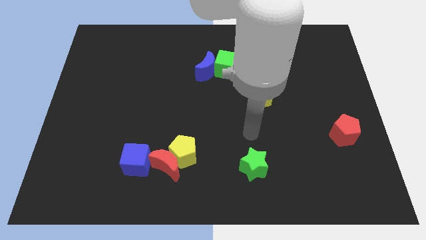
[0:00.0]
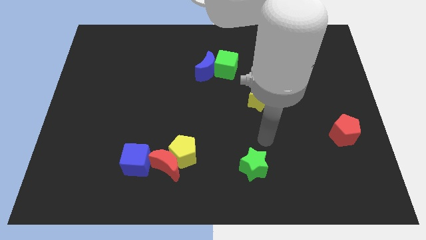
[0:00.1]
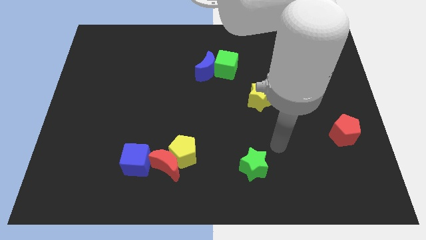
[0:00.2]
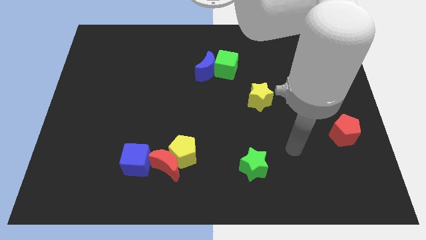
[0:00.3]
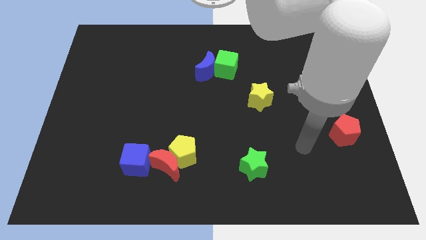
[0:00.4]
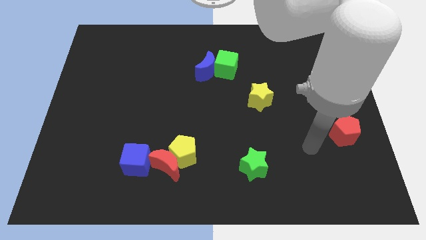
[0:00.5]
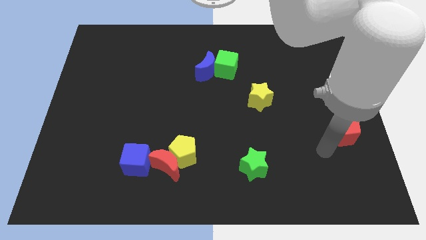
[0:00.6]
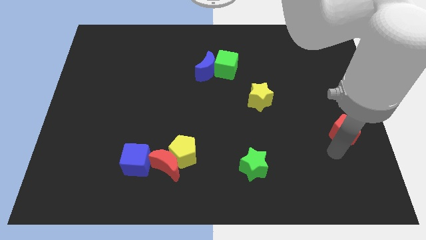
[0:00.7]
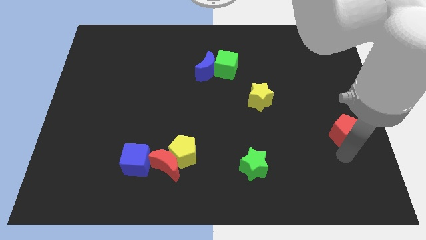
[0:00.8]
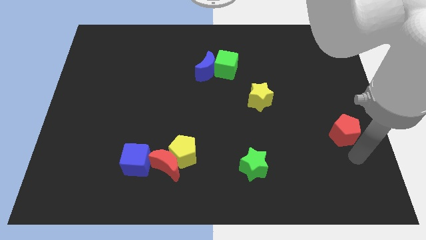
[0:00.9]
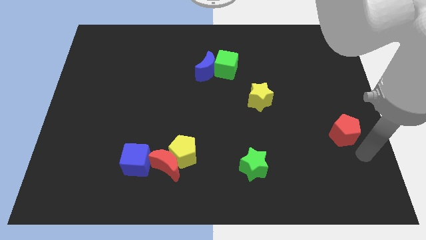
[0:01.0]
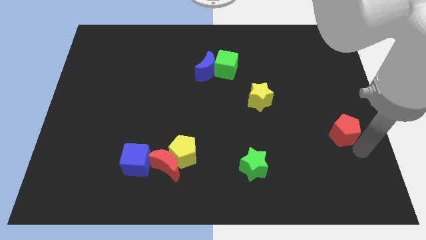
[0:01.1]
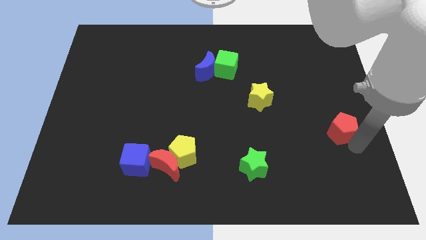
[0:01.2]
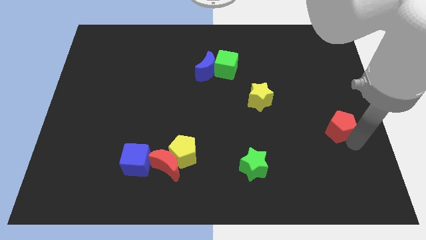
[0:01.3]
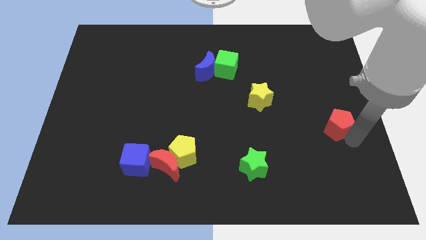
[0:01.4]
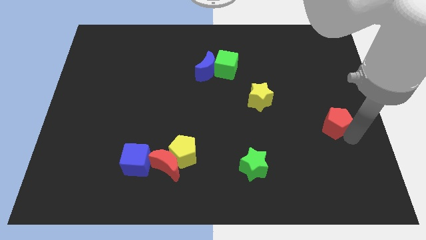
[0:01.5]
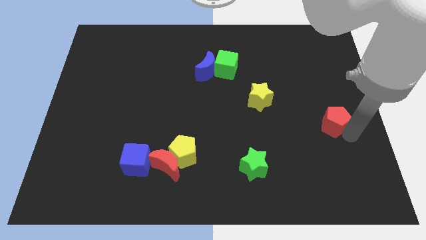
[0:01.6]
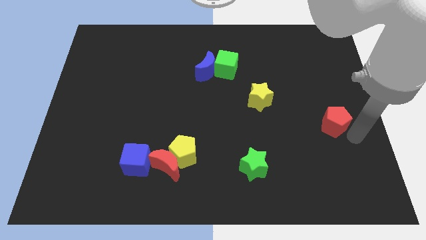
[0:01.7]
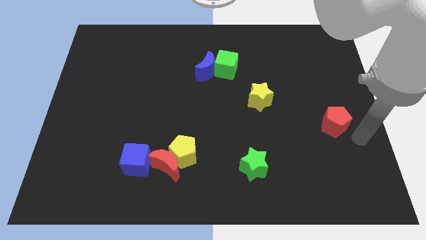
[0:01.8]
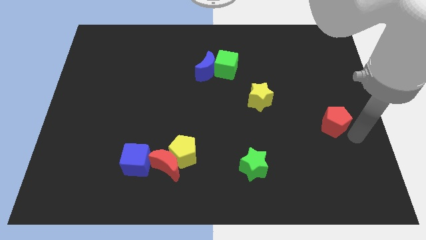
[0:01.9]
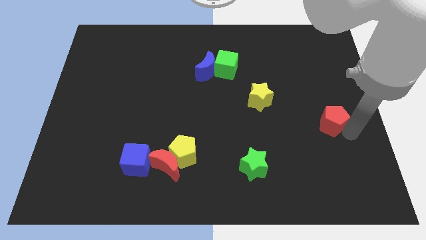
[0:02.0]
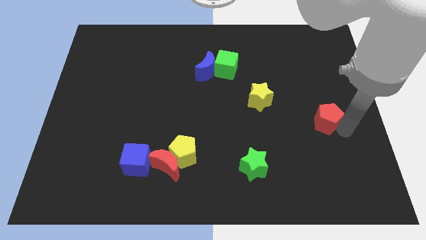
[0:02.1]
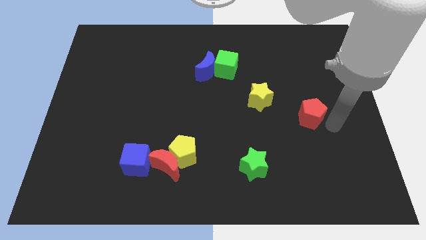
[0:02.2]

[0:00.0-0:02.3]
push the red pentagon diagonally up and to the left somewhat

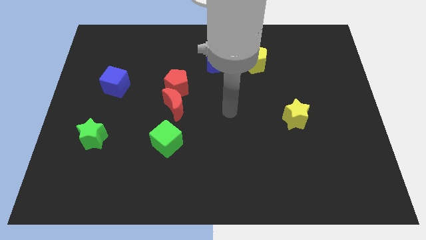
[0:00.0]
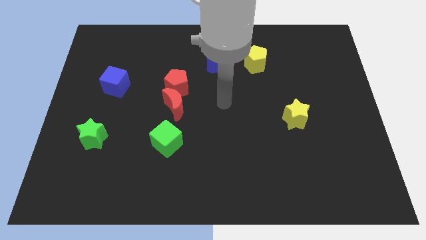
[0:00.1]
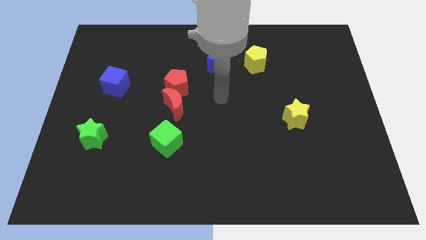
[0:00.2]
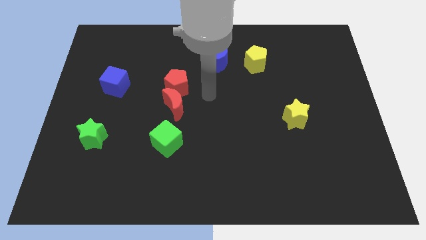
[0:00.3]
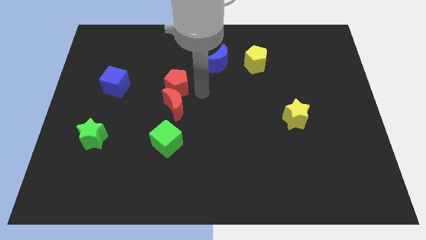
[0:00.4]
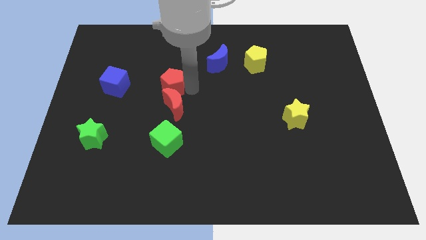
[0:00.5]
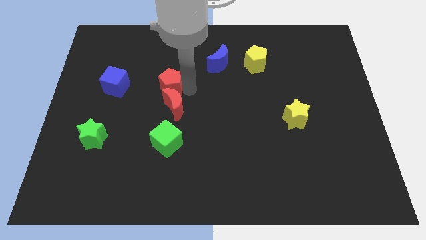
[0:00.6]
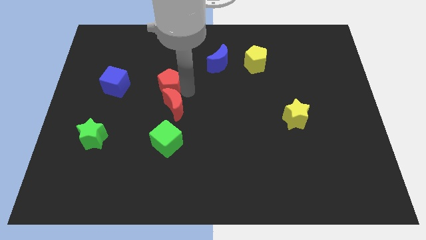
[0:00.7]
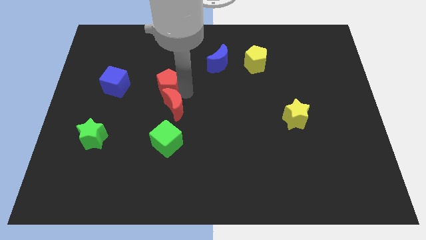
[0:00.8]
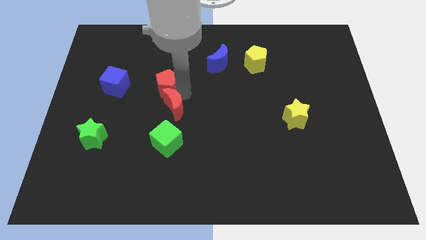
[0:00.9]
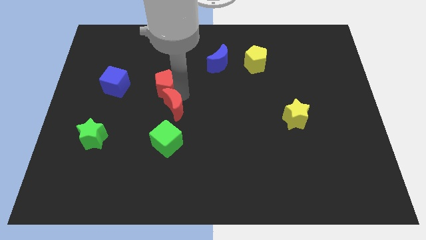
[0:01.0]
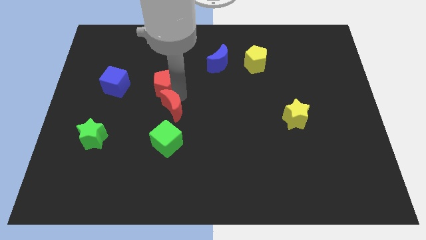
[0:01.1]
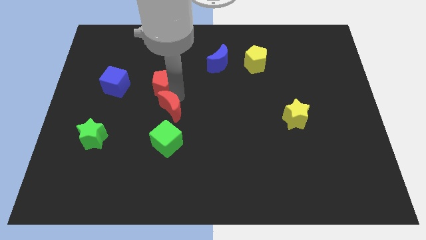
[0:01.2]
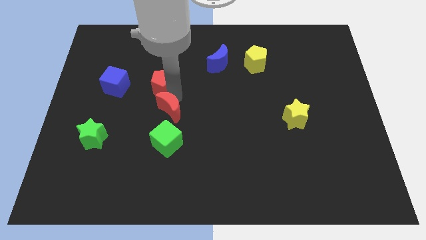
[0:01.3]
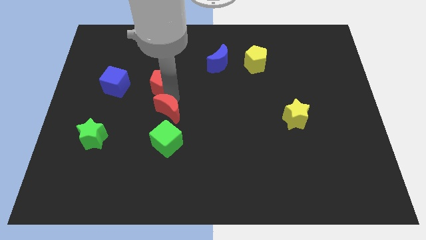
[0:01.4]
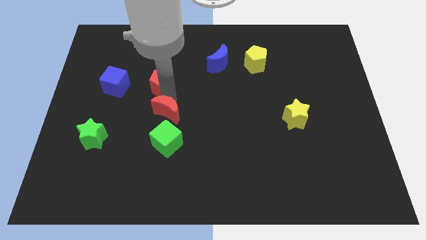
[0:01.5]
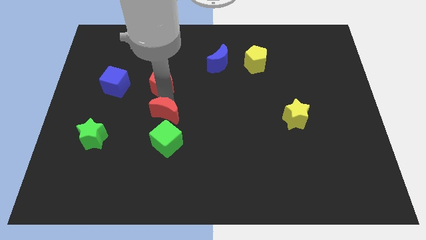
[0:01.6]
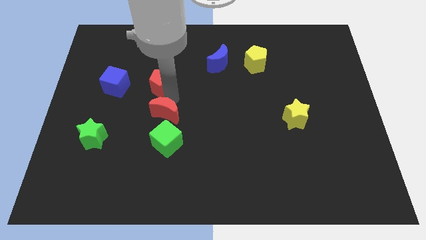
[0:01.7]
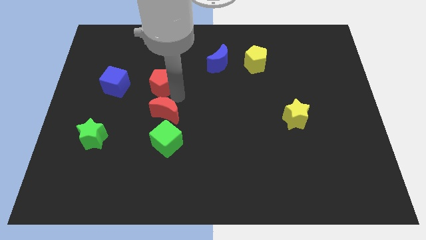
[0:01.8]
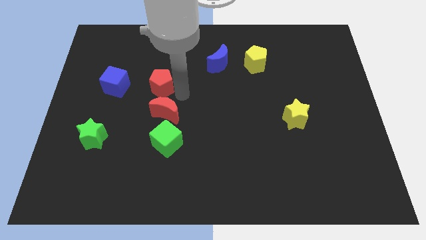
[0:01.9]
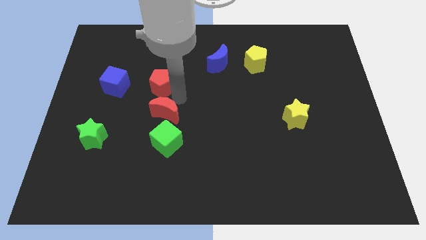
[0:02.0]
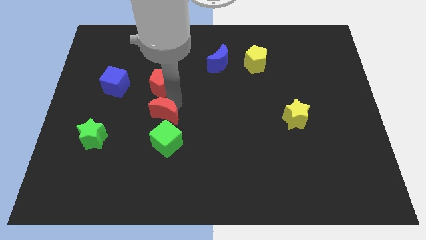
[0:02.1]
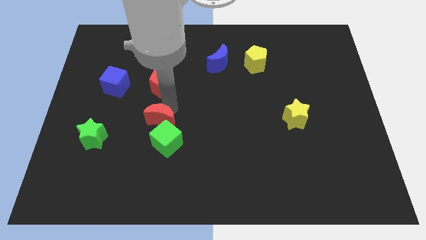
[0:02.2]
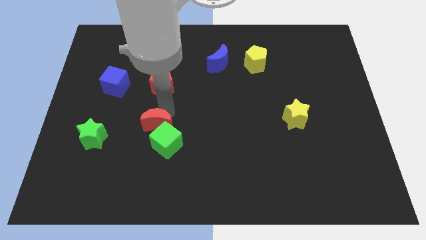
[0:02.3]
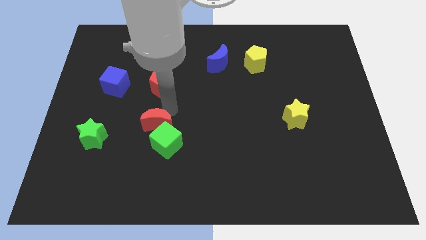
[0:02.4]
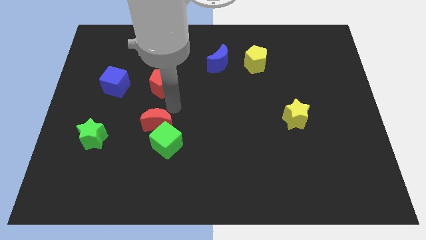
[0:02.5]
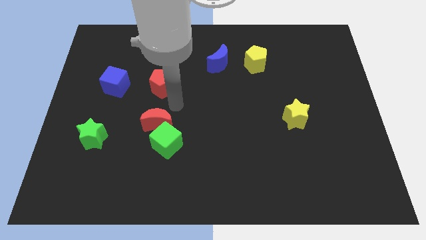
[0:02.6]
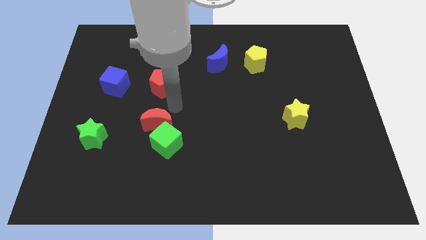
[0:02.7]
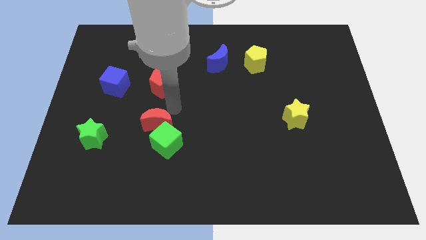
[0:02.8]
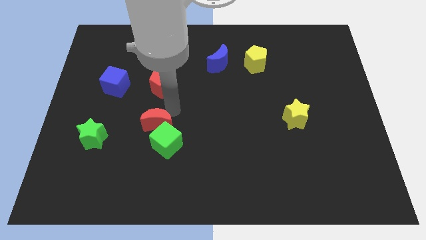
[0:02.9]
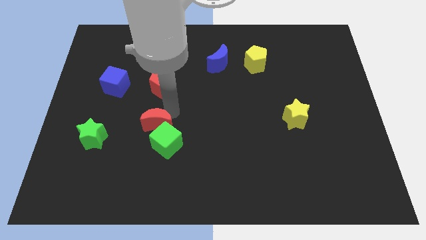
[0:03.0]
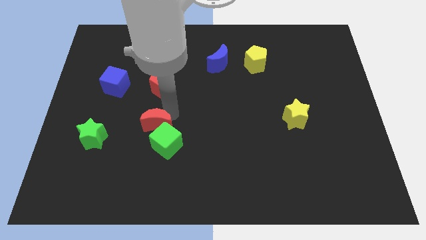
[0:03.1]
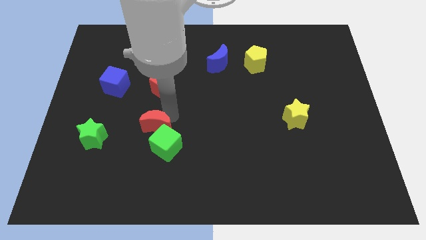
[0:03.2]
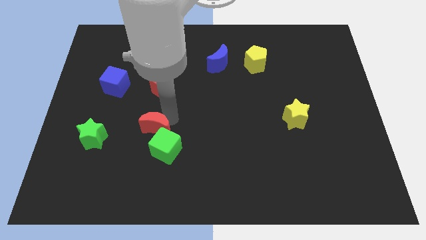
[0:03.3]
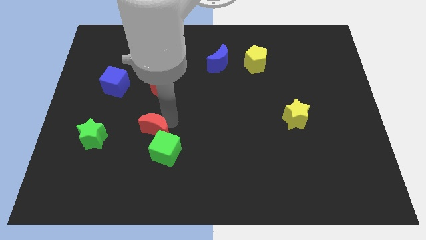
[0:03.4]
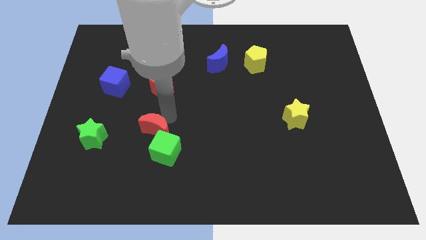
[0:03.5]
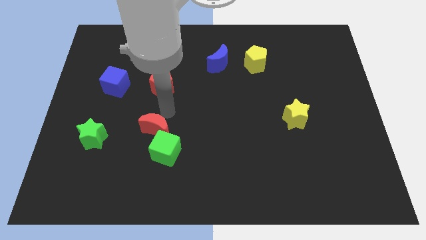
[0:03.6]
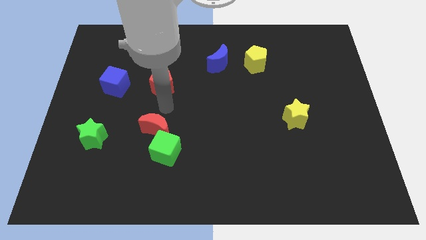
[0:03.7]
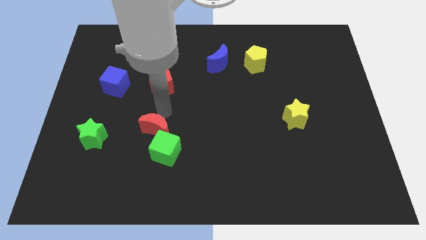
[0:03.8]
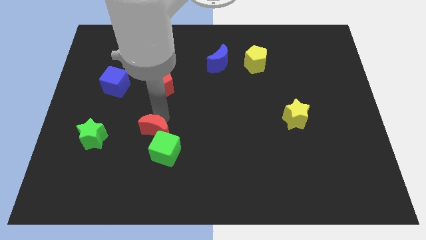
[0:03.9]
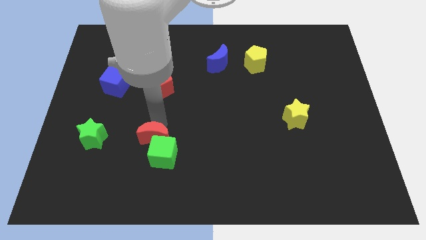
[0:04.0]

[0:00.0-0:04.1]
push the red moon down slightly

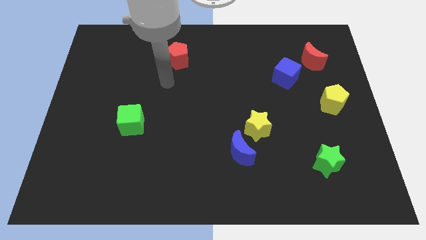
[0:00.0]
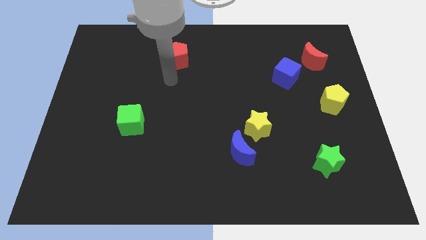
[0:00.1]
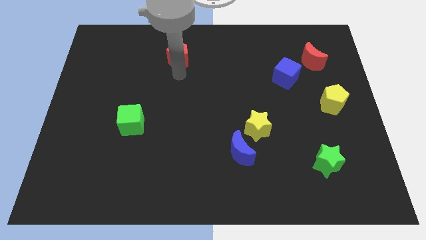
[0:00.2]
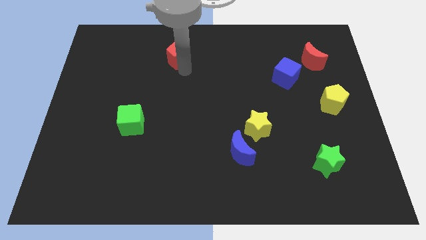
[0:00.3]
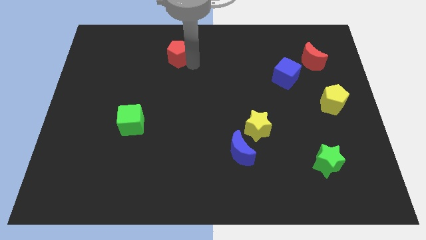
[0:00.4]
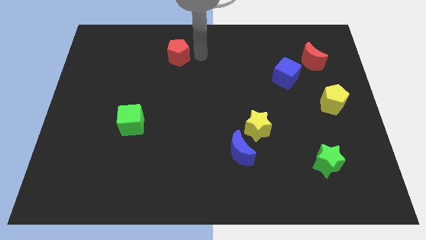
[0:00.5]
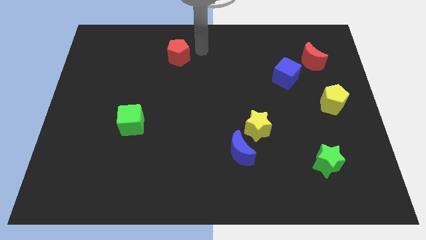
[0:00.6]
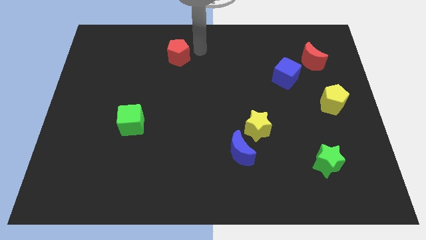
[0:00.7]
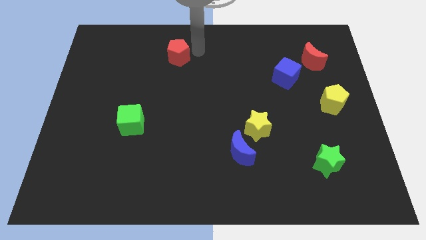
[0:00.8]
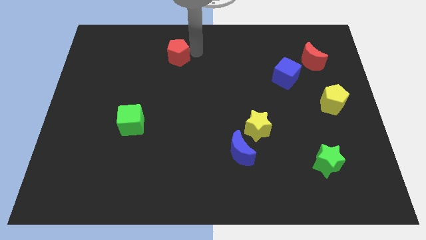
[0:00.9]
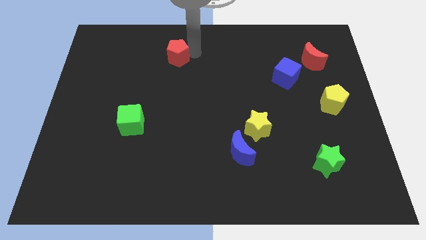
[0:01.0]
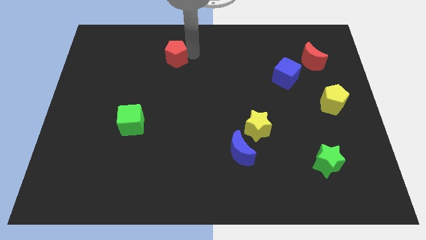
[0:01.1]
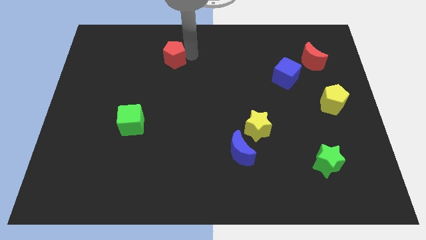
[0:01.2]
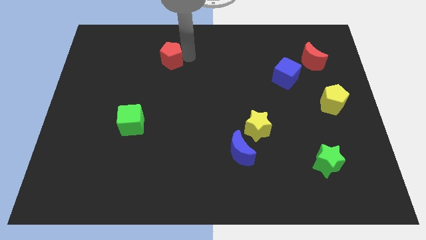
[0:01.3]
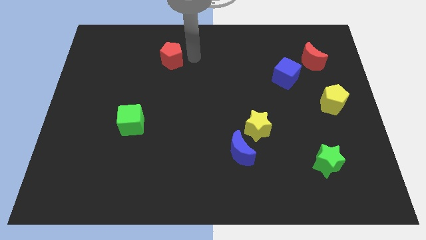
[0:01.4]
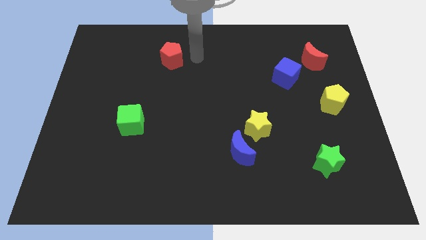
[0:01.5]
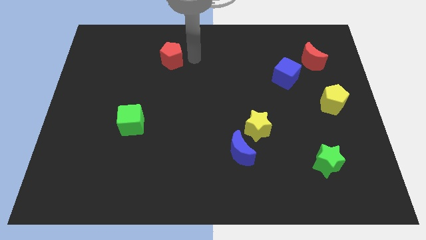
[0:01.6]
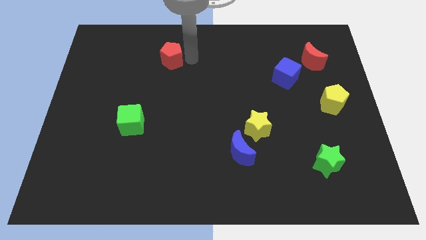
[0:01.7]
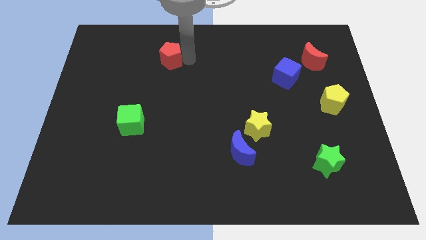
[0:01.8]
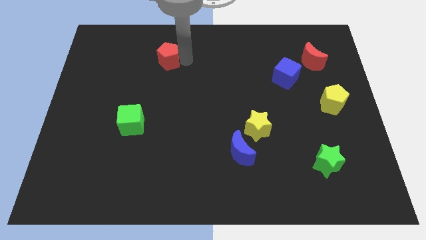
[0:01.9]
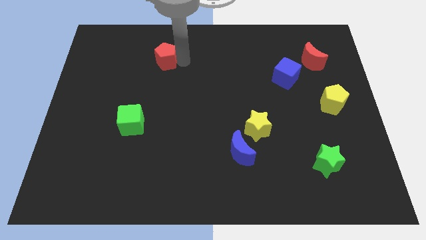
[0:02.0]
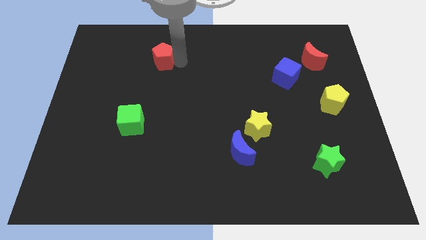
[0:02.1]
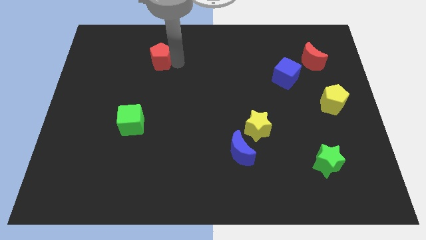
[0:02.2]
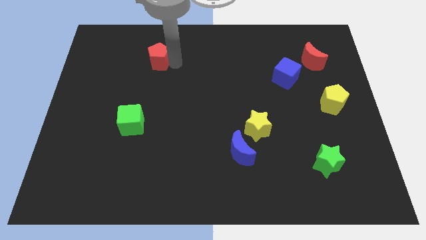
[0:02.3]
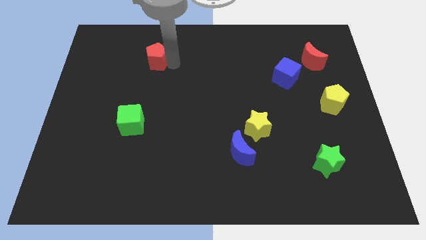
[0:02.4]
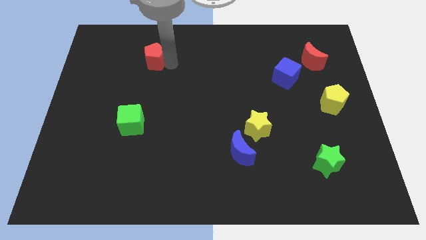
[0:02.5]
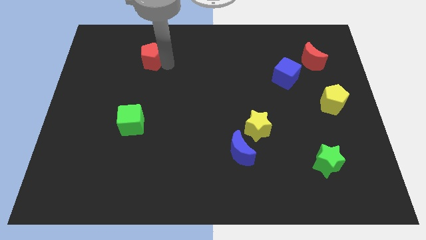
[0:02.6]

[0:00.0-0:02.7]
push the red pentagon left a little bit
